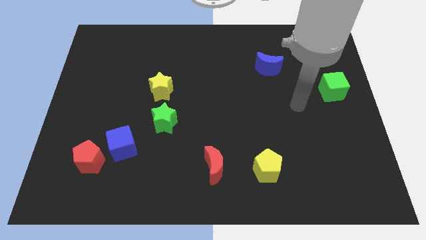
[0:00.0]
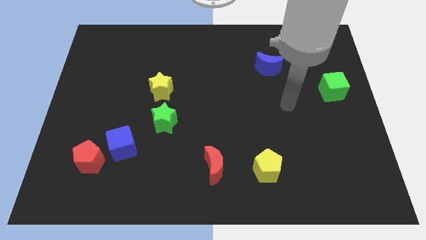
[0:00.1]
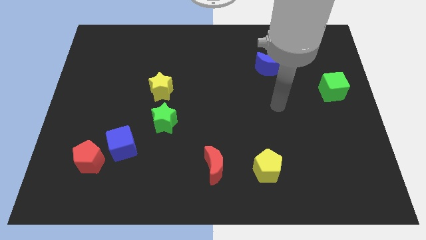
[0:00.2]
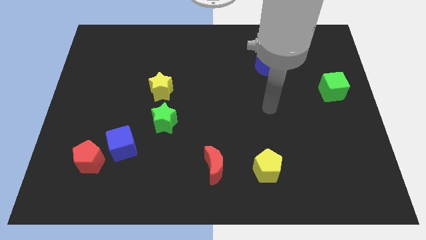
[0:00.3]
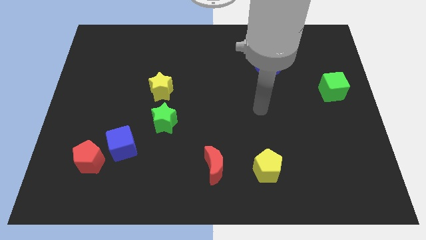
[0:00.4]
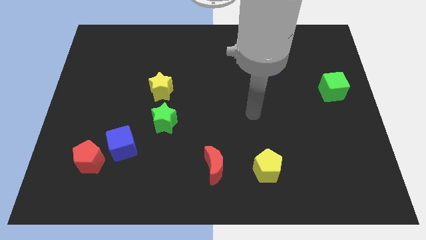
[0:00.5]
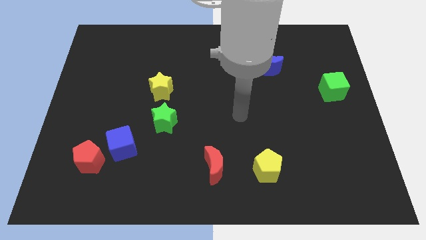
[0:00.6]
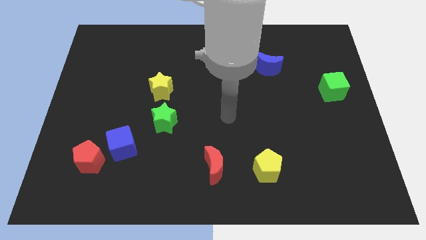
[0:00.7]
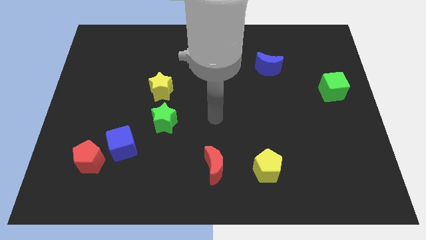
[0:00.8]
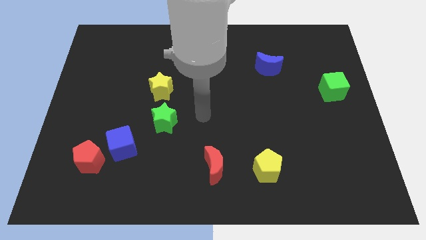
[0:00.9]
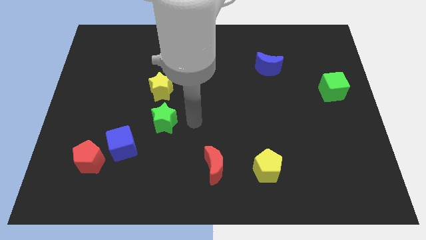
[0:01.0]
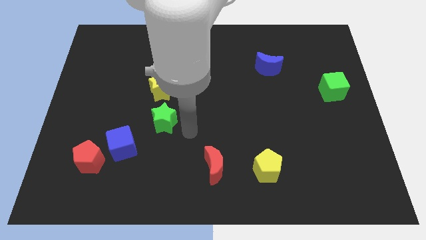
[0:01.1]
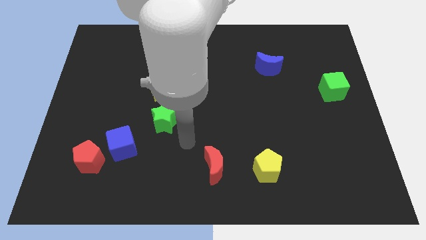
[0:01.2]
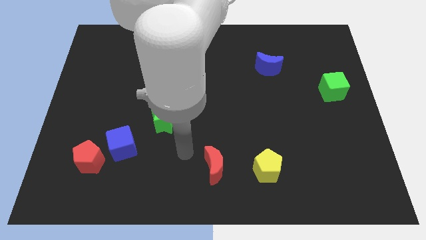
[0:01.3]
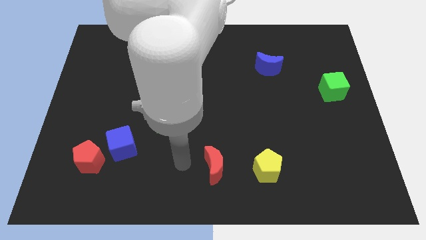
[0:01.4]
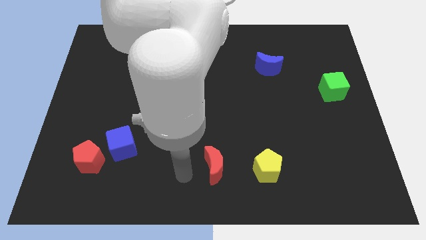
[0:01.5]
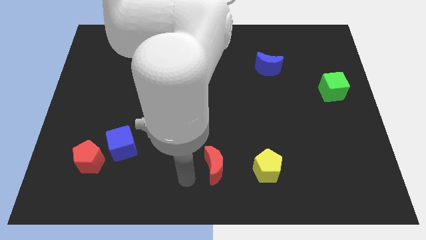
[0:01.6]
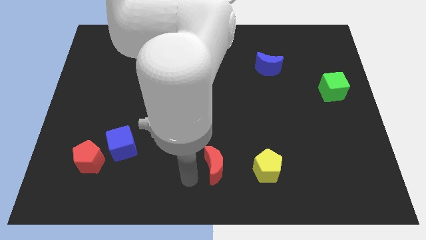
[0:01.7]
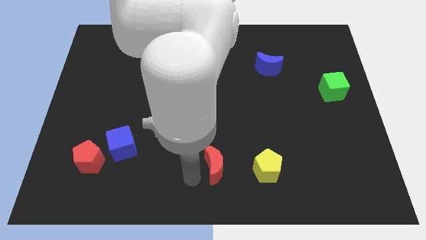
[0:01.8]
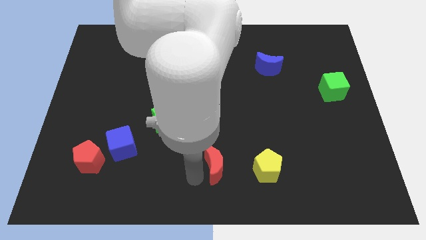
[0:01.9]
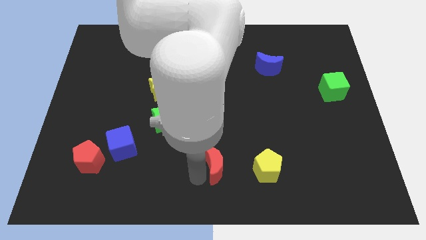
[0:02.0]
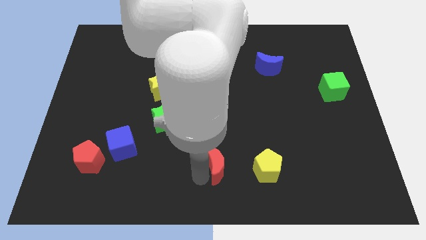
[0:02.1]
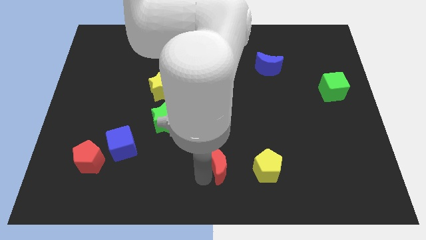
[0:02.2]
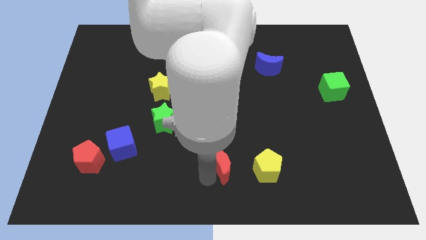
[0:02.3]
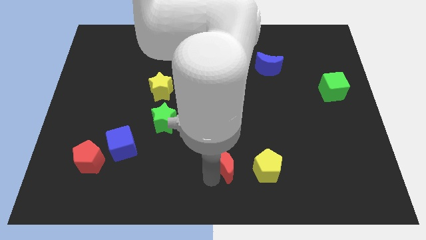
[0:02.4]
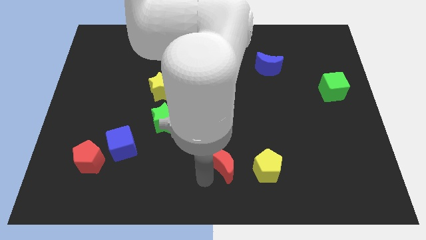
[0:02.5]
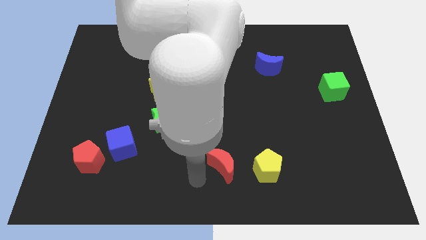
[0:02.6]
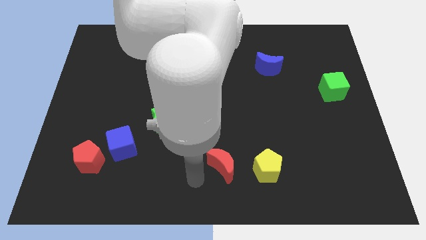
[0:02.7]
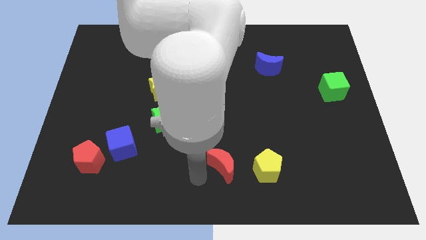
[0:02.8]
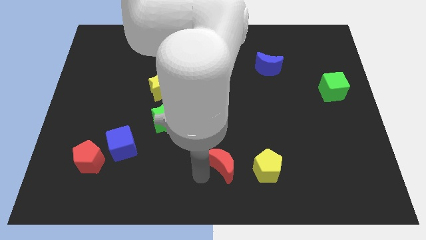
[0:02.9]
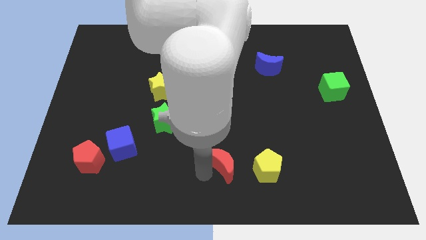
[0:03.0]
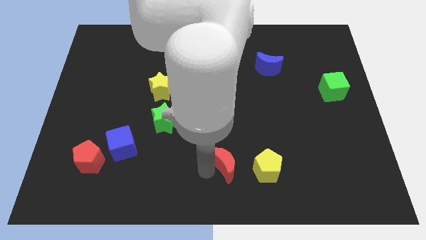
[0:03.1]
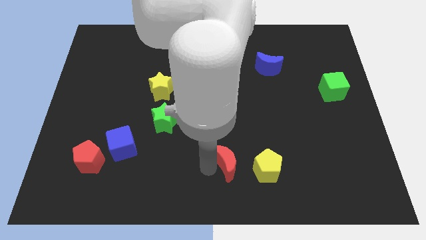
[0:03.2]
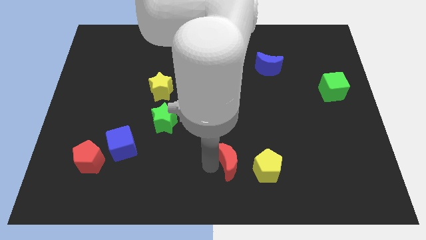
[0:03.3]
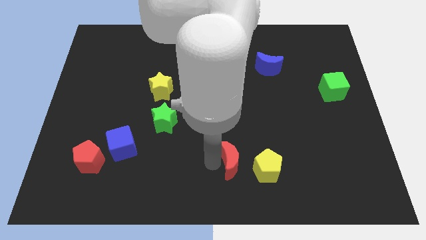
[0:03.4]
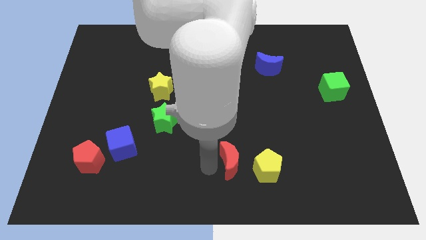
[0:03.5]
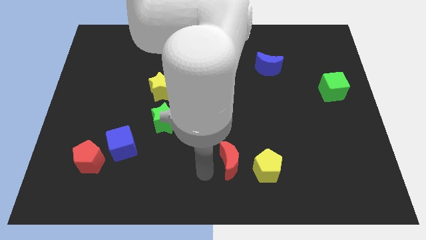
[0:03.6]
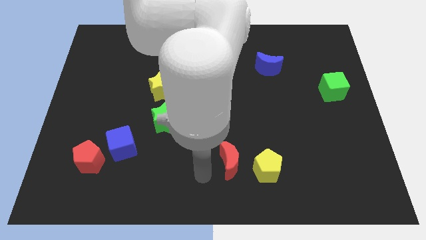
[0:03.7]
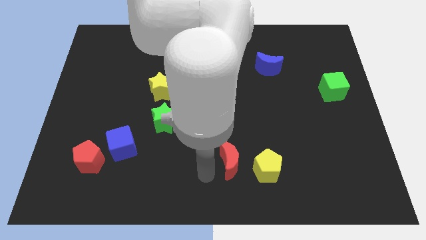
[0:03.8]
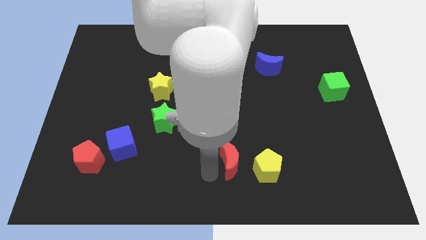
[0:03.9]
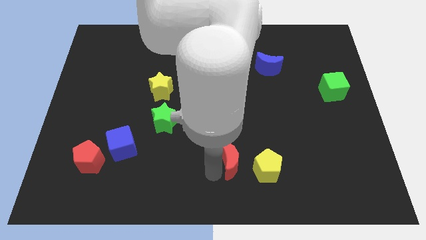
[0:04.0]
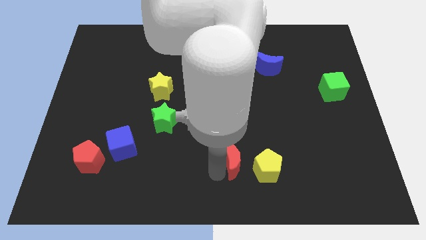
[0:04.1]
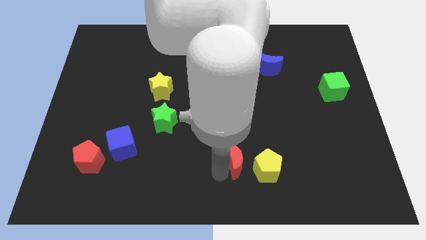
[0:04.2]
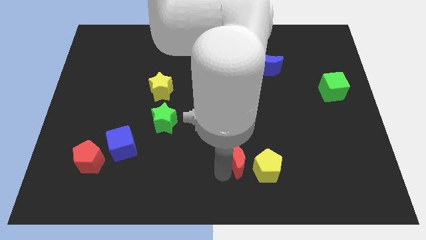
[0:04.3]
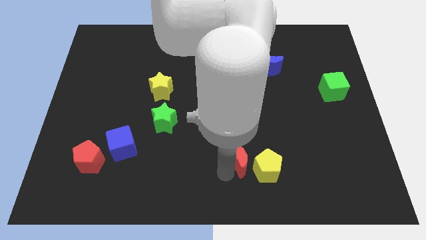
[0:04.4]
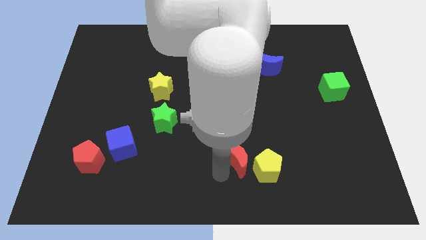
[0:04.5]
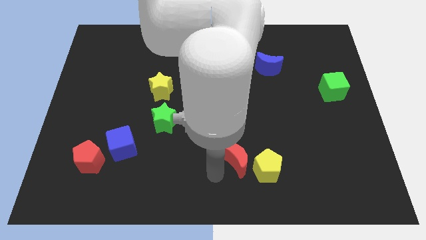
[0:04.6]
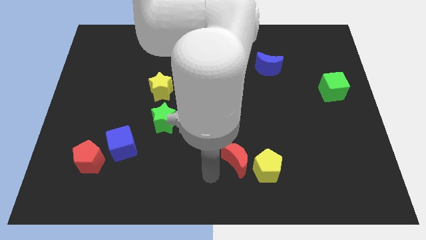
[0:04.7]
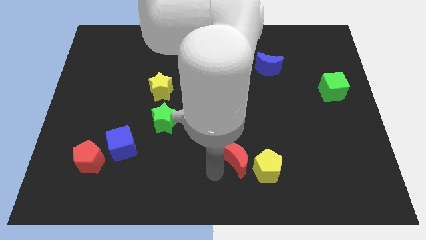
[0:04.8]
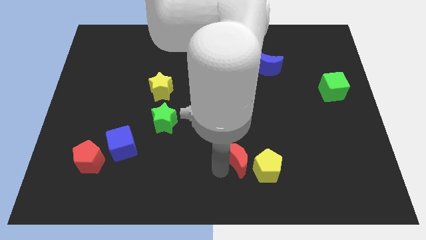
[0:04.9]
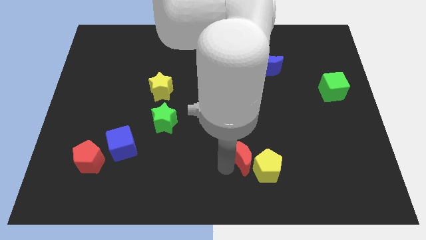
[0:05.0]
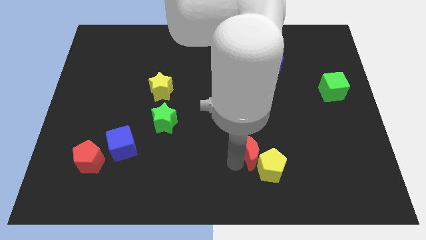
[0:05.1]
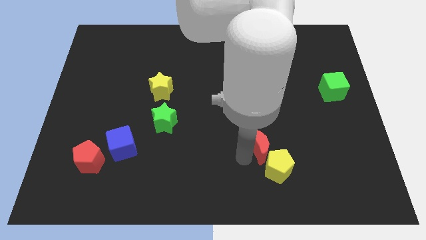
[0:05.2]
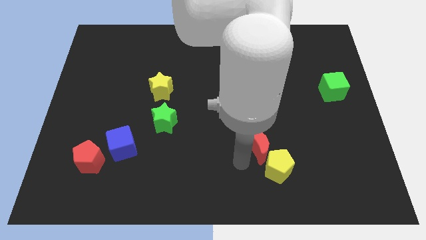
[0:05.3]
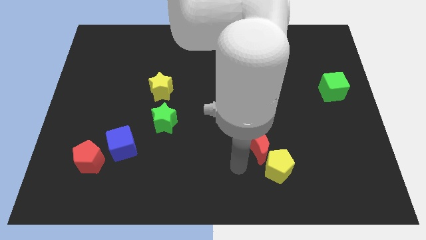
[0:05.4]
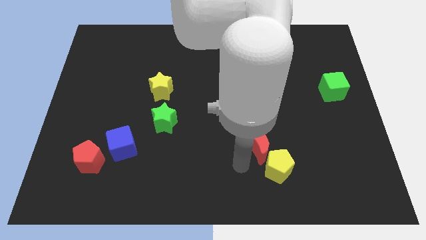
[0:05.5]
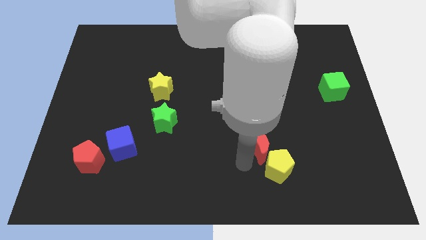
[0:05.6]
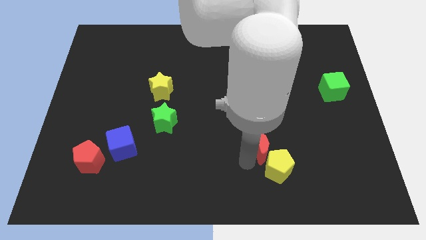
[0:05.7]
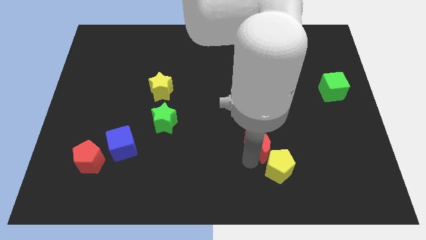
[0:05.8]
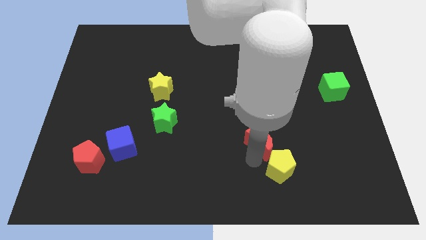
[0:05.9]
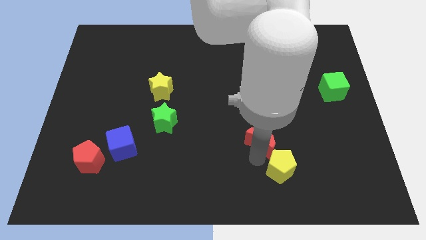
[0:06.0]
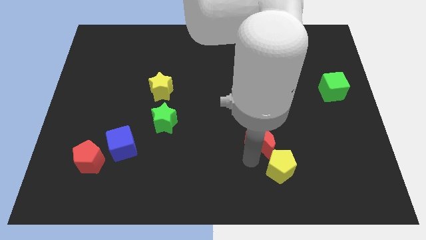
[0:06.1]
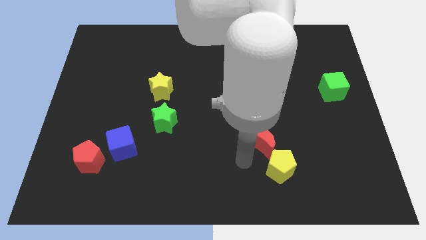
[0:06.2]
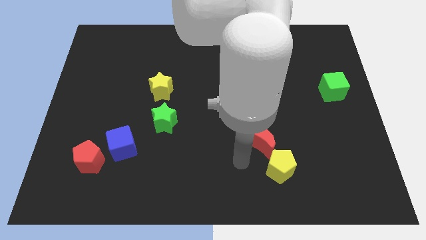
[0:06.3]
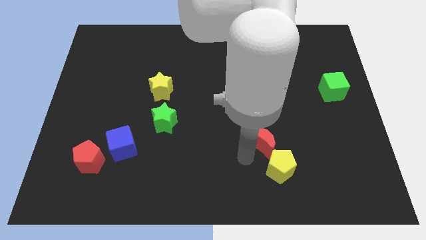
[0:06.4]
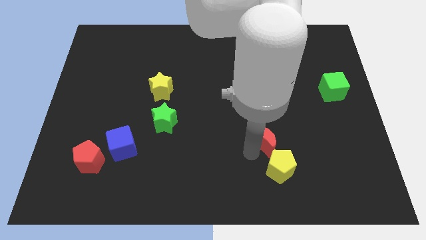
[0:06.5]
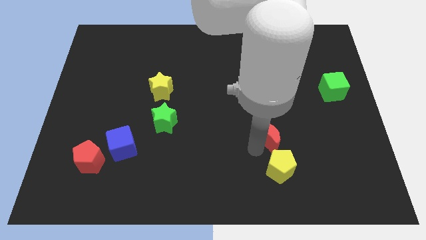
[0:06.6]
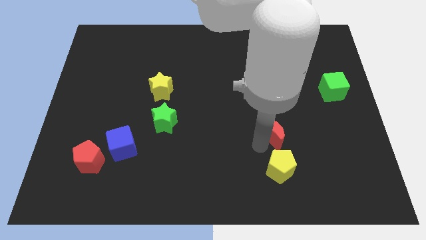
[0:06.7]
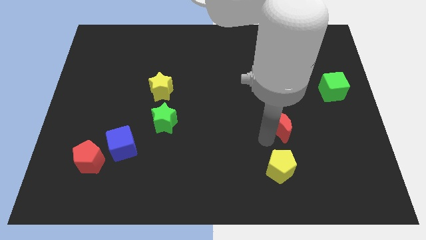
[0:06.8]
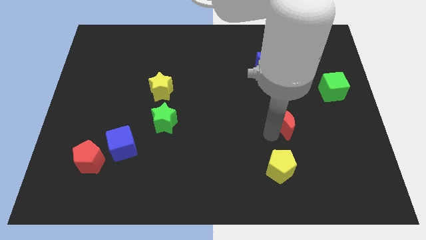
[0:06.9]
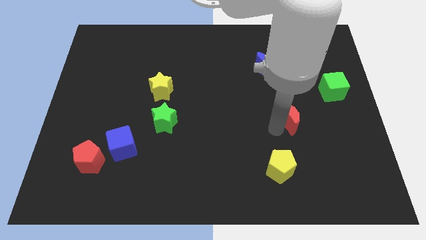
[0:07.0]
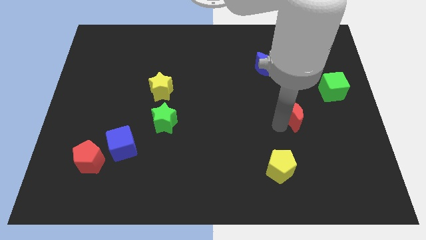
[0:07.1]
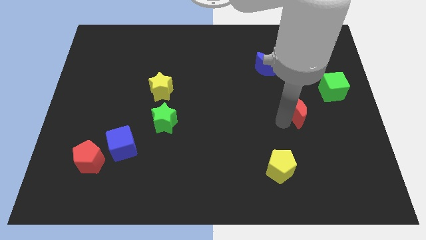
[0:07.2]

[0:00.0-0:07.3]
put the red moon to the bottom left side of the green cube

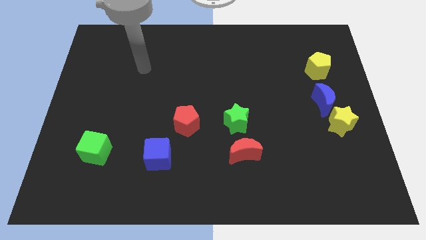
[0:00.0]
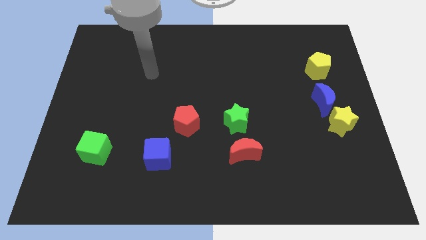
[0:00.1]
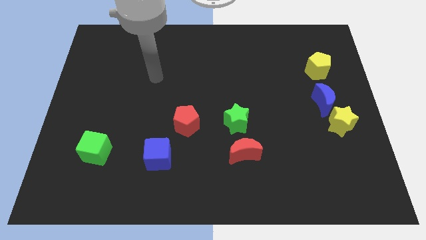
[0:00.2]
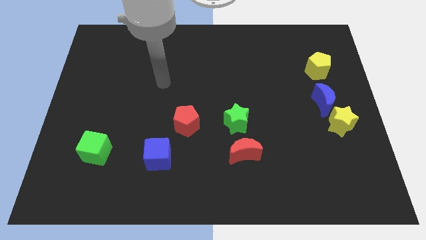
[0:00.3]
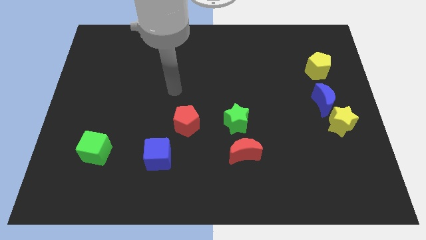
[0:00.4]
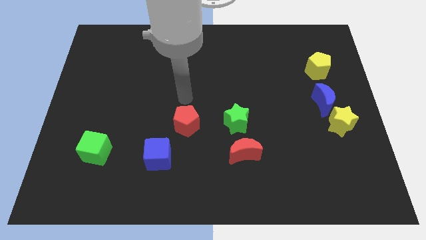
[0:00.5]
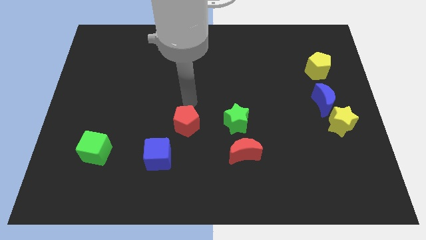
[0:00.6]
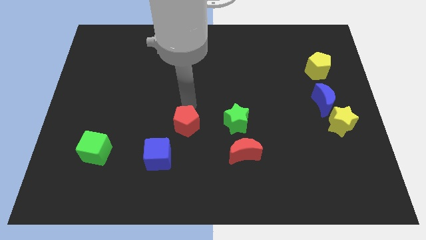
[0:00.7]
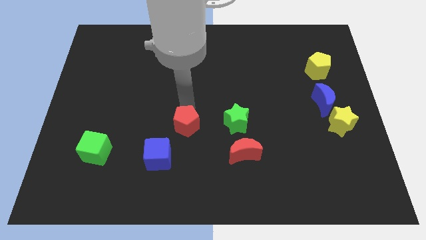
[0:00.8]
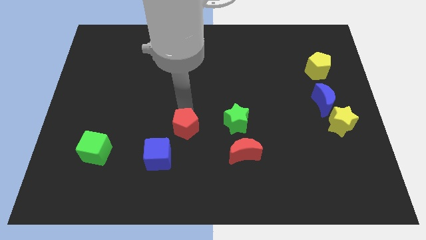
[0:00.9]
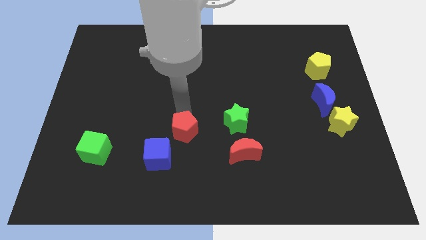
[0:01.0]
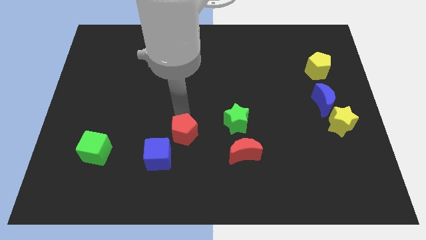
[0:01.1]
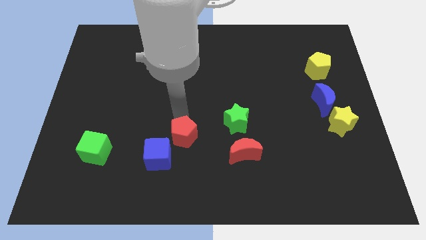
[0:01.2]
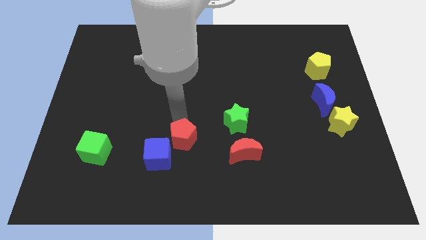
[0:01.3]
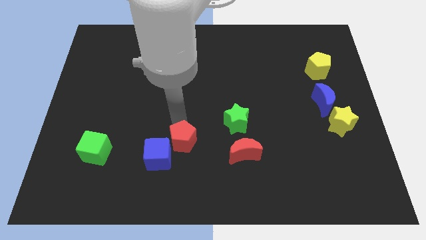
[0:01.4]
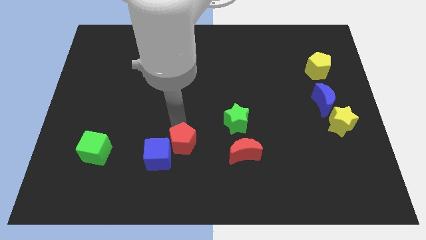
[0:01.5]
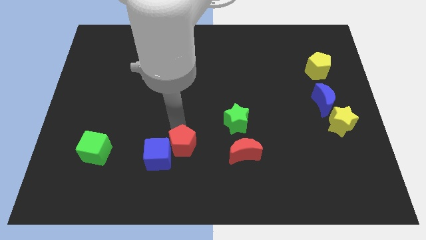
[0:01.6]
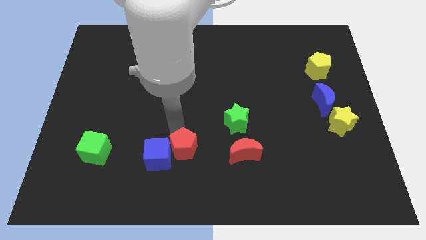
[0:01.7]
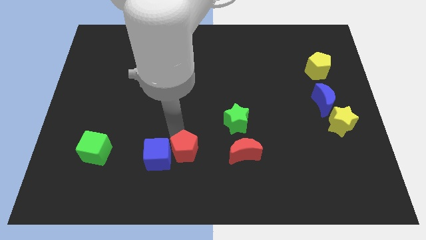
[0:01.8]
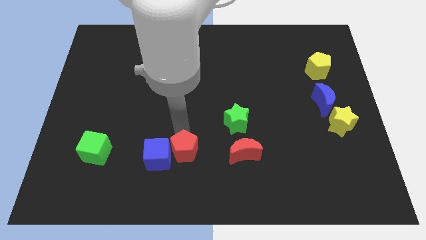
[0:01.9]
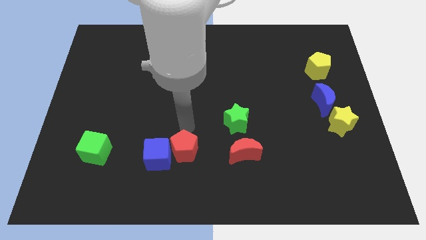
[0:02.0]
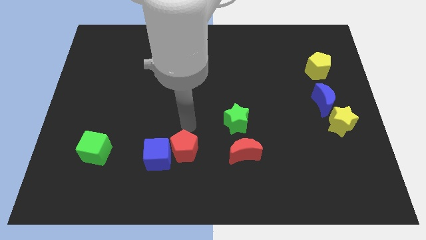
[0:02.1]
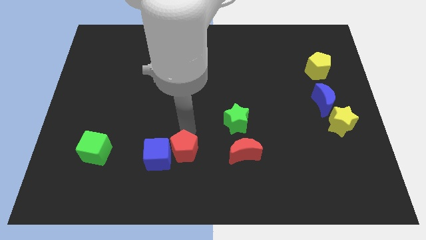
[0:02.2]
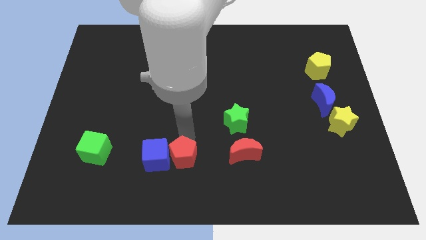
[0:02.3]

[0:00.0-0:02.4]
push the red pentagon to the bottom right side of the blue cube
